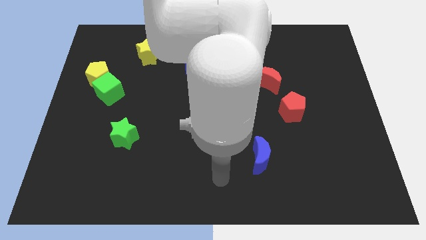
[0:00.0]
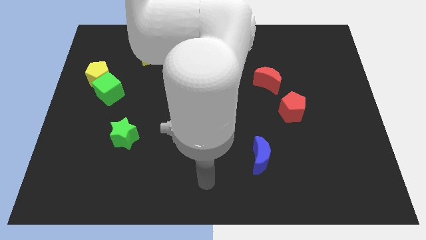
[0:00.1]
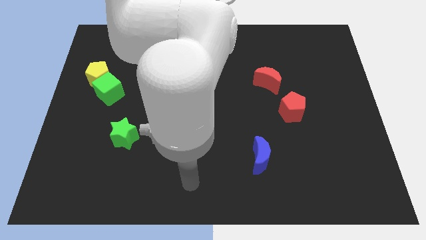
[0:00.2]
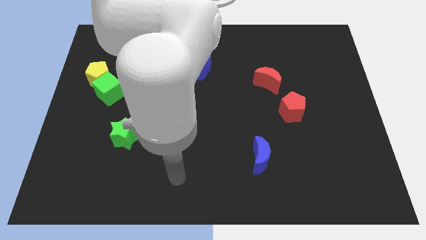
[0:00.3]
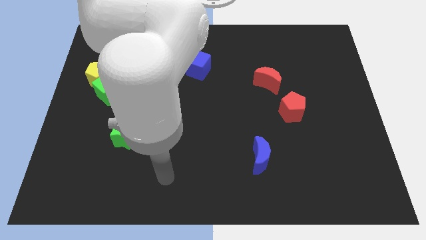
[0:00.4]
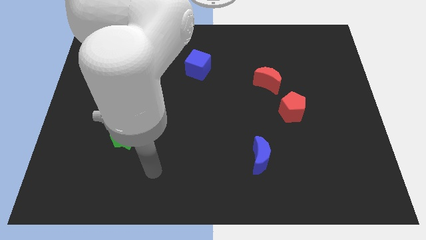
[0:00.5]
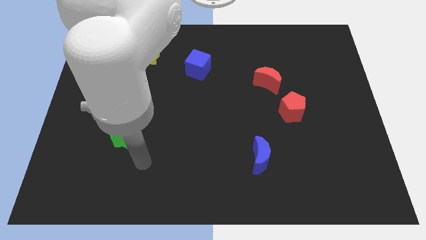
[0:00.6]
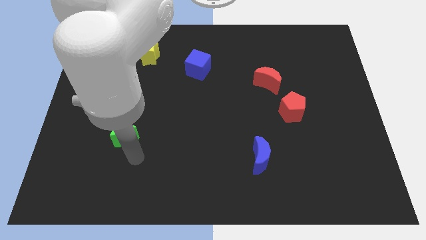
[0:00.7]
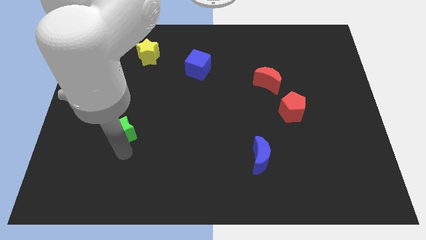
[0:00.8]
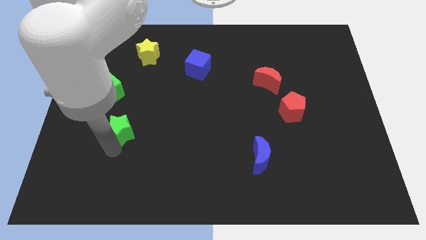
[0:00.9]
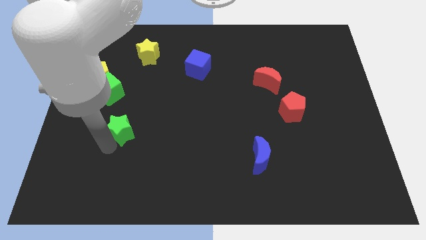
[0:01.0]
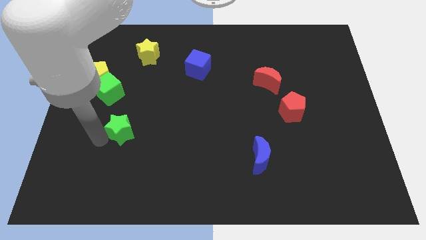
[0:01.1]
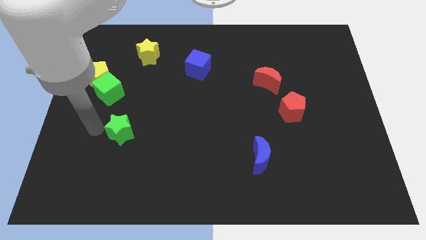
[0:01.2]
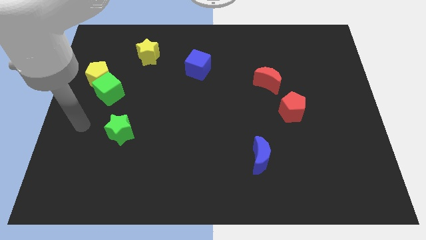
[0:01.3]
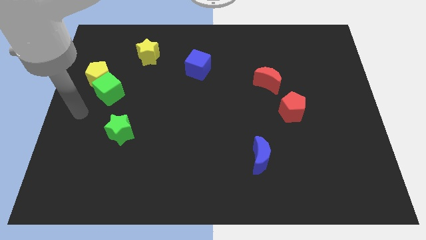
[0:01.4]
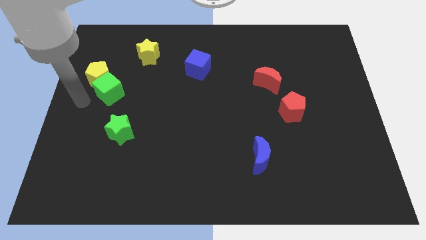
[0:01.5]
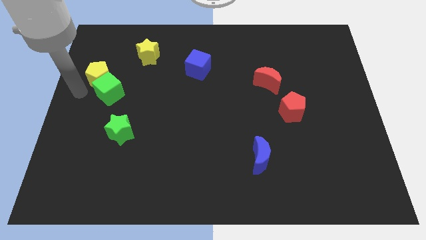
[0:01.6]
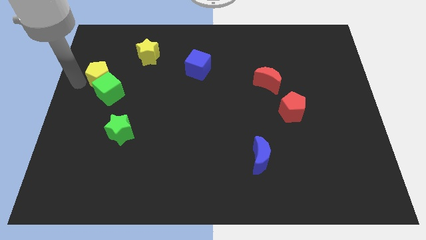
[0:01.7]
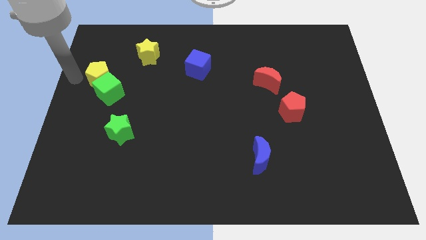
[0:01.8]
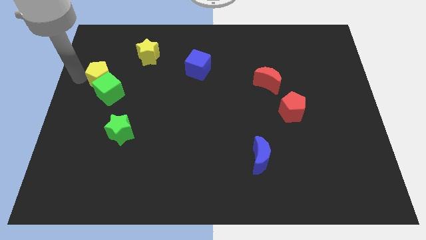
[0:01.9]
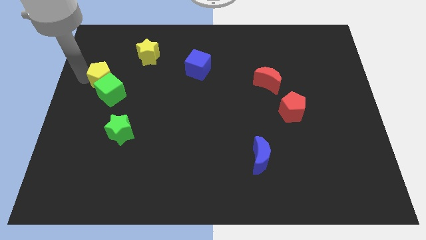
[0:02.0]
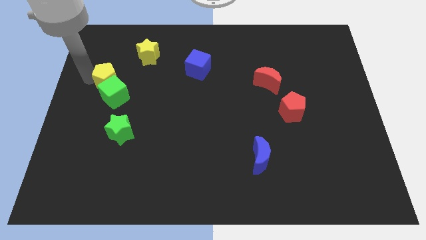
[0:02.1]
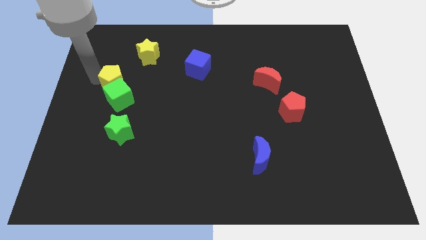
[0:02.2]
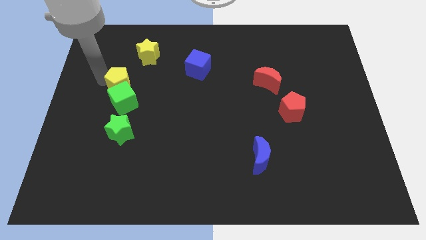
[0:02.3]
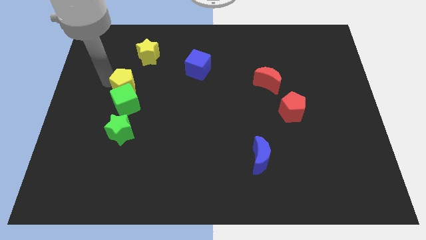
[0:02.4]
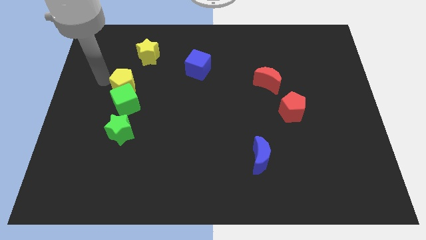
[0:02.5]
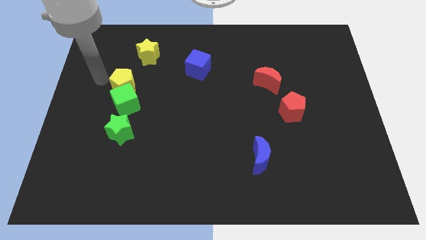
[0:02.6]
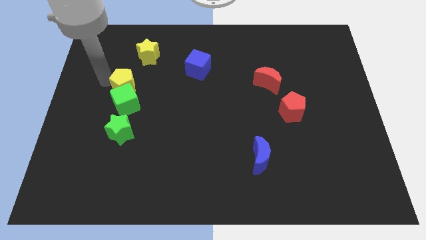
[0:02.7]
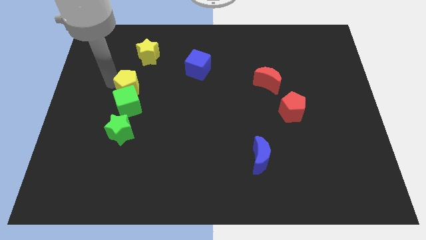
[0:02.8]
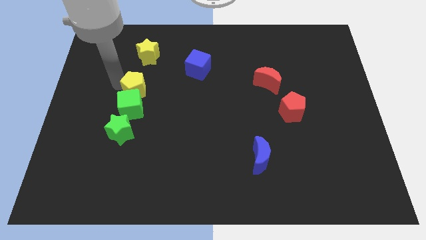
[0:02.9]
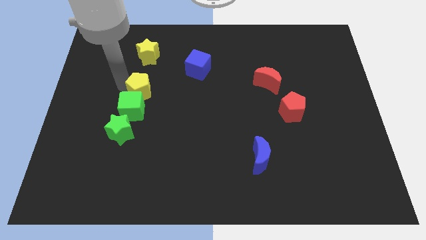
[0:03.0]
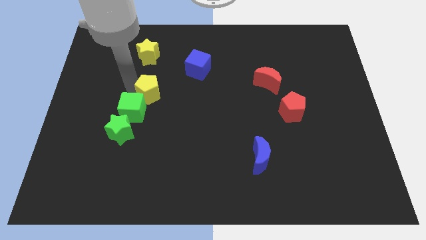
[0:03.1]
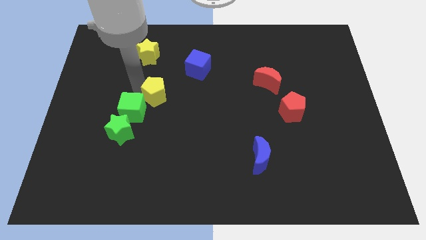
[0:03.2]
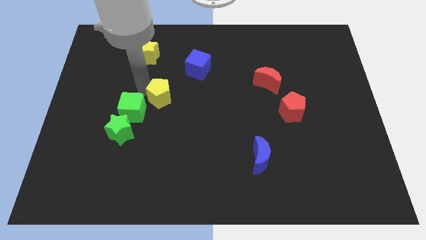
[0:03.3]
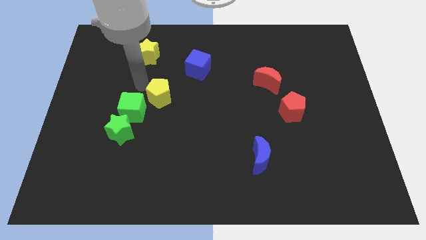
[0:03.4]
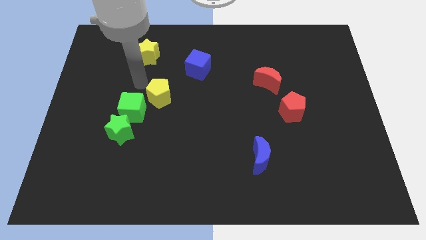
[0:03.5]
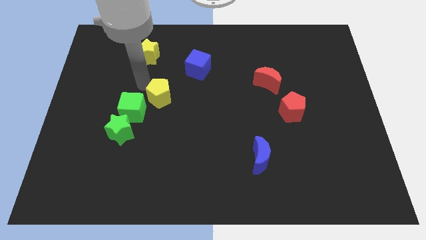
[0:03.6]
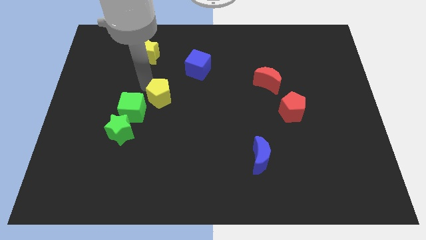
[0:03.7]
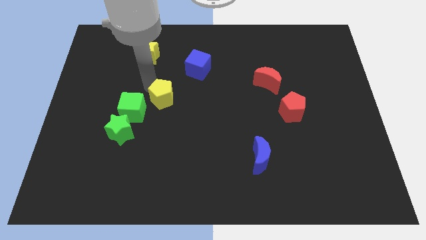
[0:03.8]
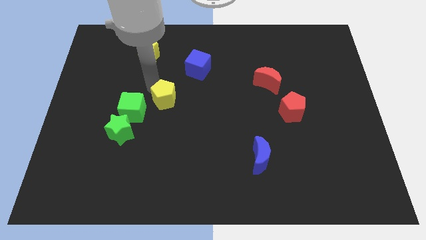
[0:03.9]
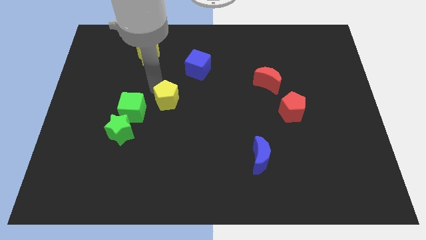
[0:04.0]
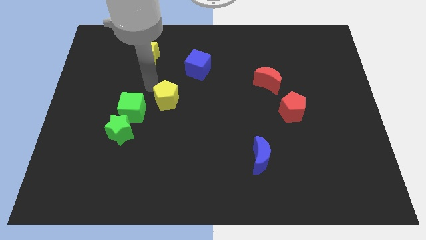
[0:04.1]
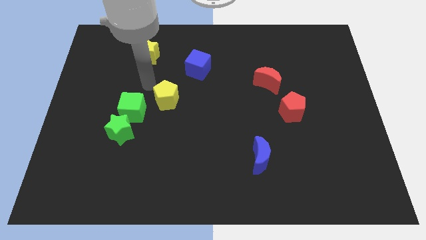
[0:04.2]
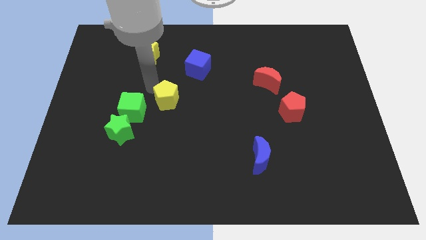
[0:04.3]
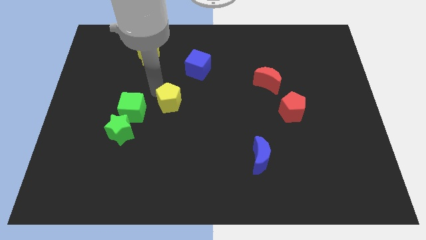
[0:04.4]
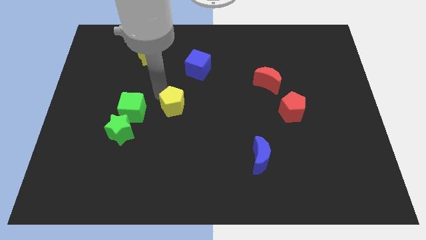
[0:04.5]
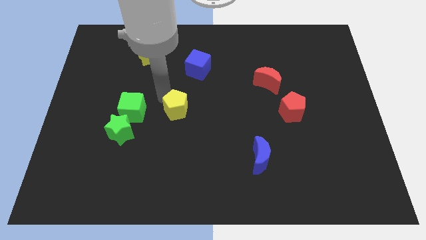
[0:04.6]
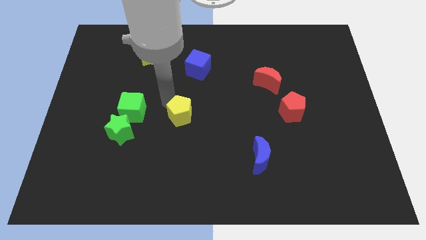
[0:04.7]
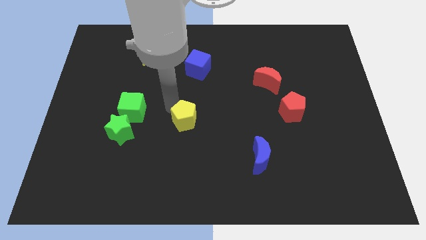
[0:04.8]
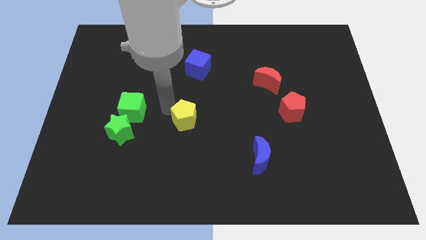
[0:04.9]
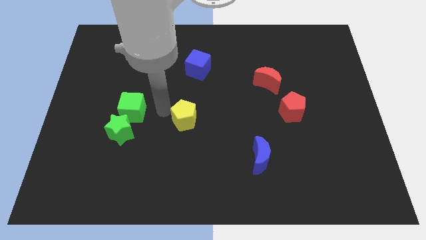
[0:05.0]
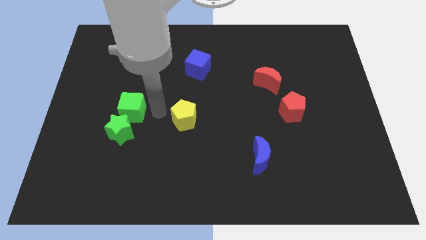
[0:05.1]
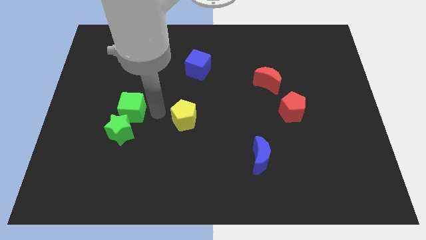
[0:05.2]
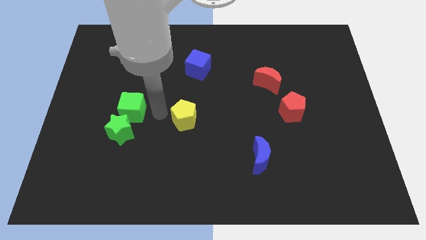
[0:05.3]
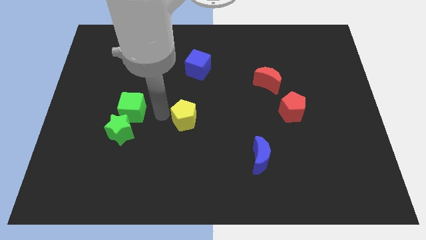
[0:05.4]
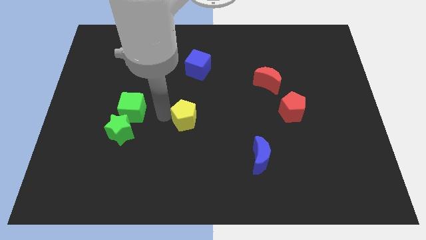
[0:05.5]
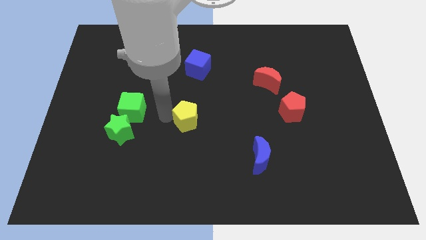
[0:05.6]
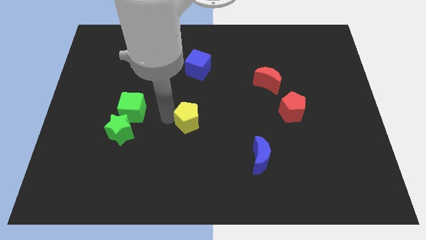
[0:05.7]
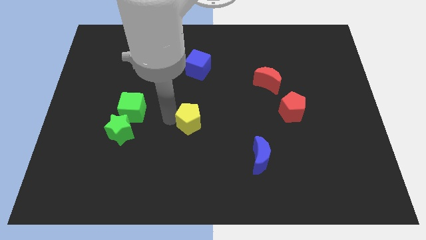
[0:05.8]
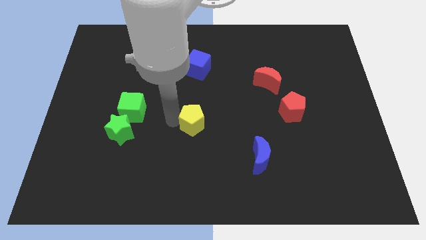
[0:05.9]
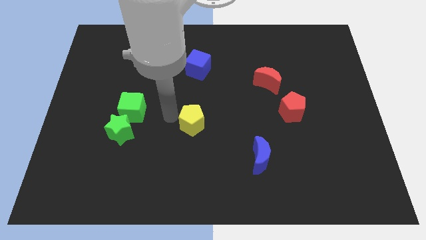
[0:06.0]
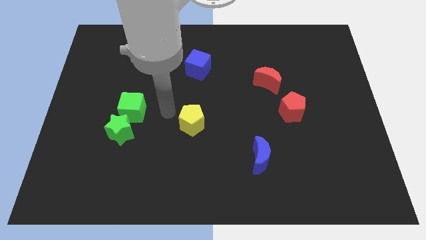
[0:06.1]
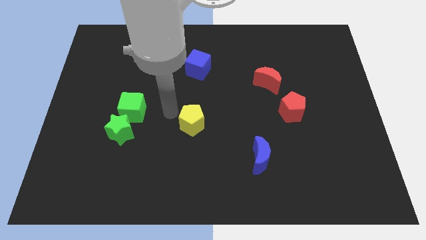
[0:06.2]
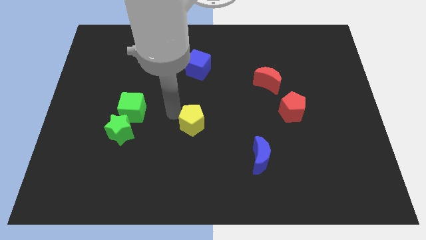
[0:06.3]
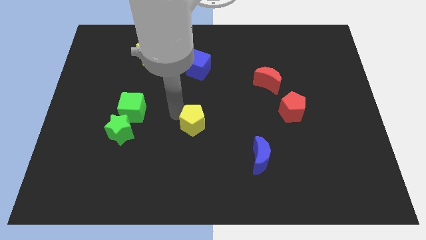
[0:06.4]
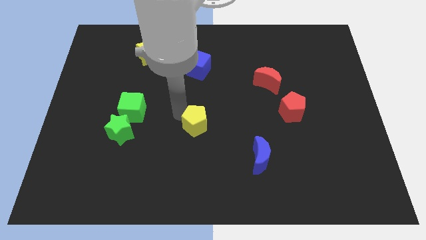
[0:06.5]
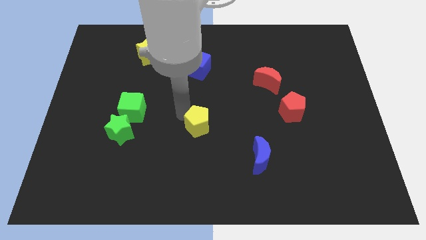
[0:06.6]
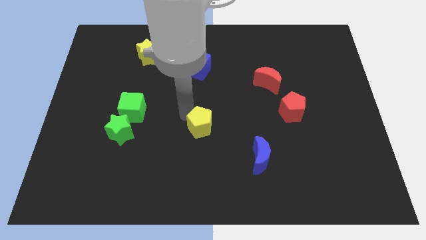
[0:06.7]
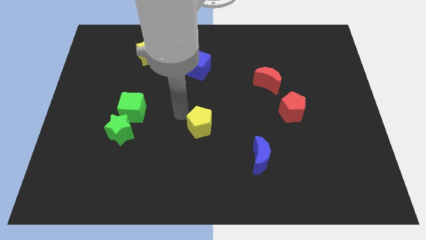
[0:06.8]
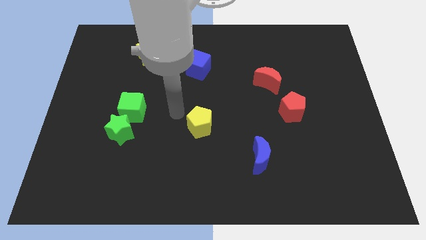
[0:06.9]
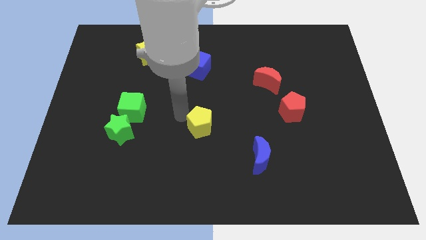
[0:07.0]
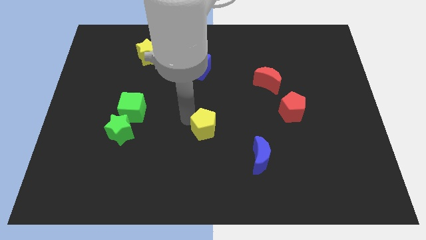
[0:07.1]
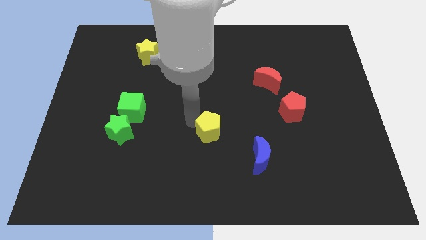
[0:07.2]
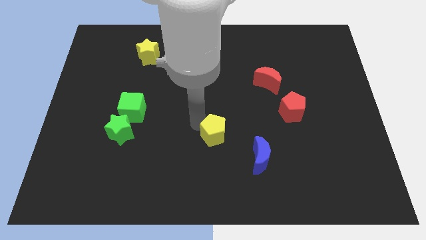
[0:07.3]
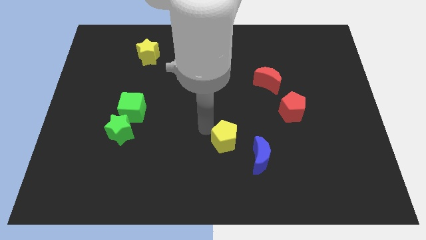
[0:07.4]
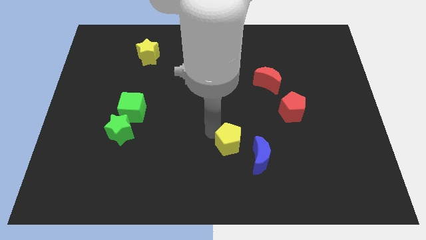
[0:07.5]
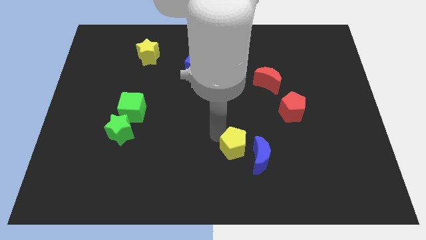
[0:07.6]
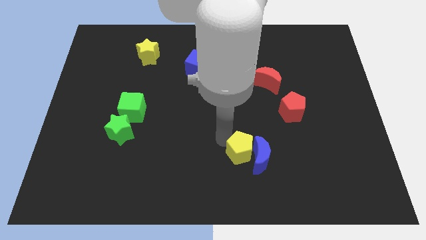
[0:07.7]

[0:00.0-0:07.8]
slide the yellow pentagon next to the blue moon
